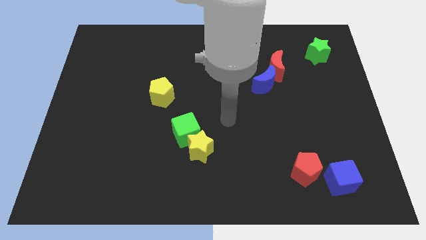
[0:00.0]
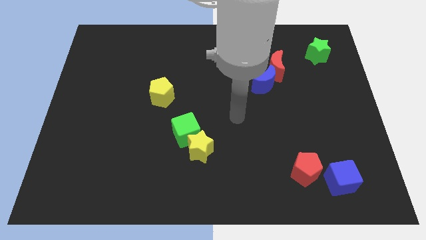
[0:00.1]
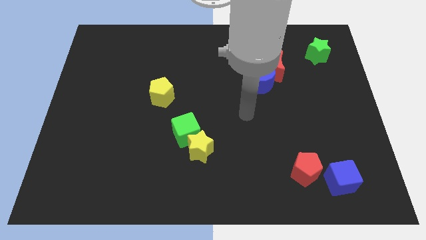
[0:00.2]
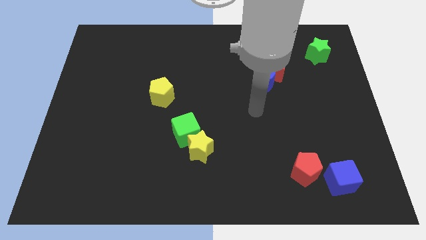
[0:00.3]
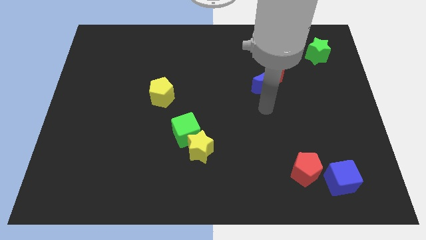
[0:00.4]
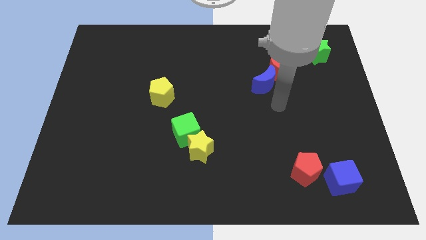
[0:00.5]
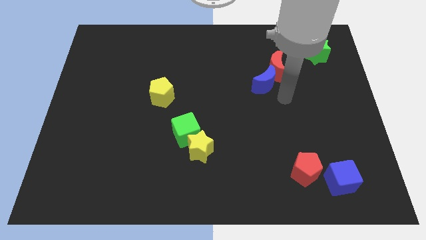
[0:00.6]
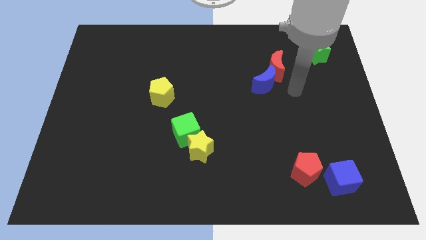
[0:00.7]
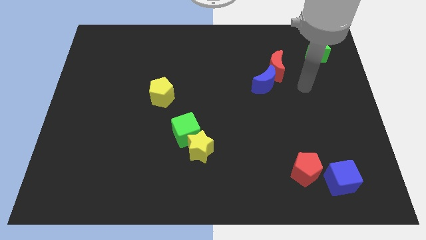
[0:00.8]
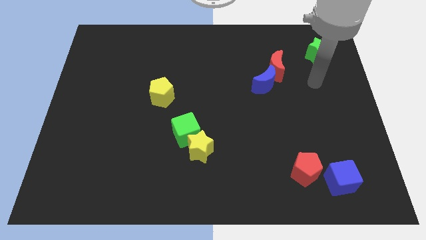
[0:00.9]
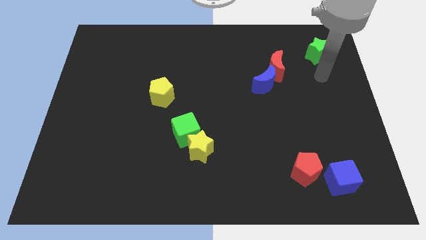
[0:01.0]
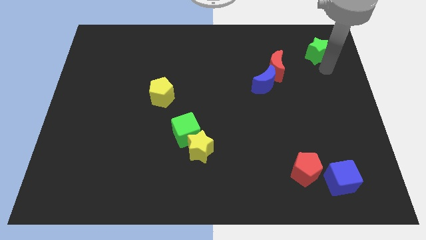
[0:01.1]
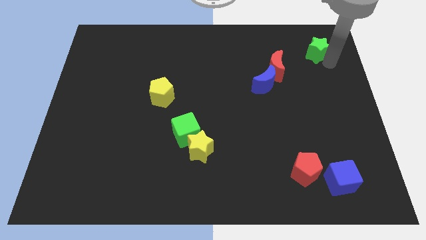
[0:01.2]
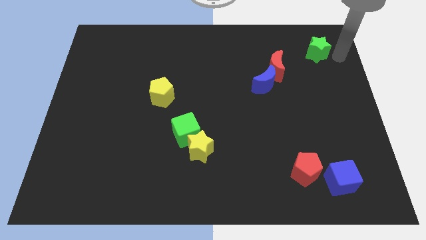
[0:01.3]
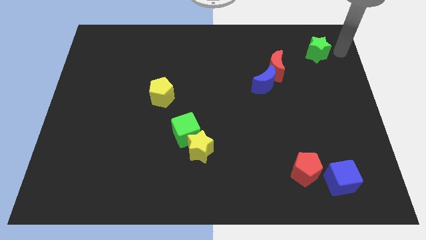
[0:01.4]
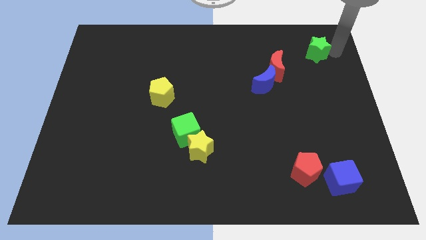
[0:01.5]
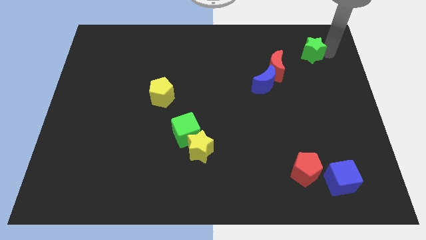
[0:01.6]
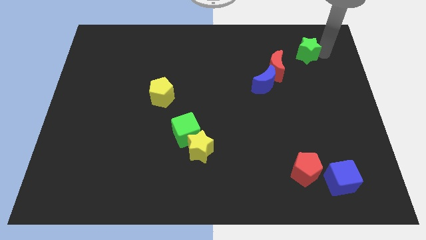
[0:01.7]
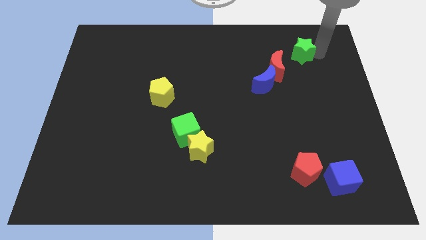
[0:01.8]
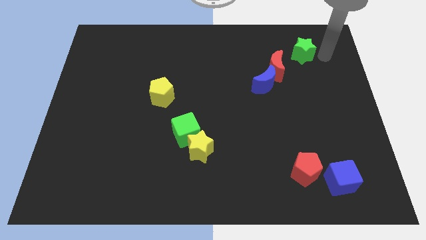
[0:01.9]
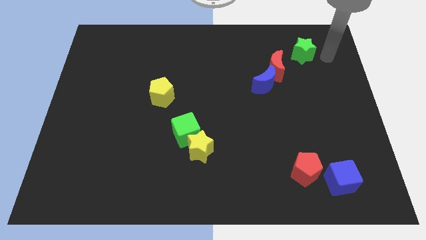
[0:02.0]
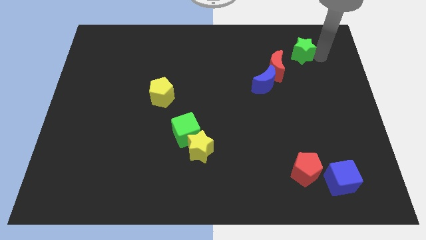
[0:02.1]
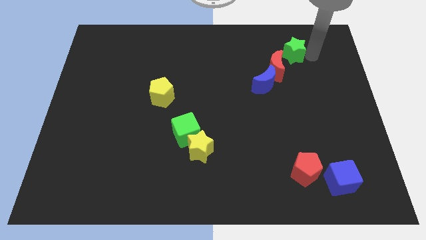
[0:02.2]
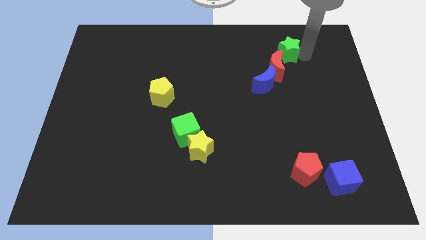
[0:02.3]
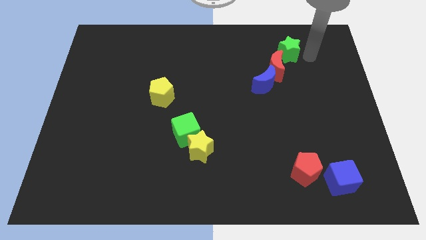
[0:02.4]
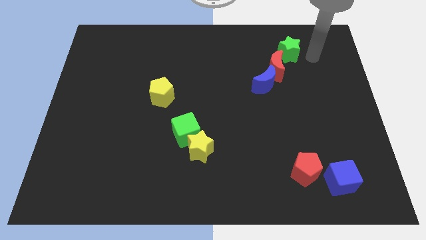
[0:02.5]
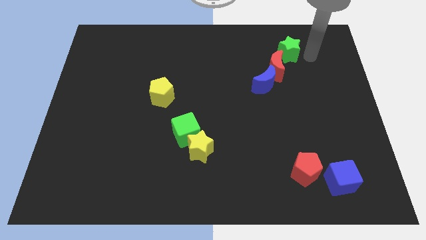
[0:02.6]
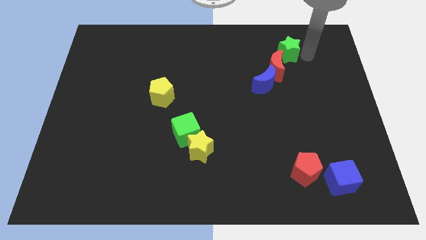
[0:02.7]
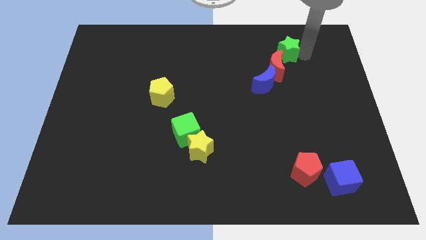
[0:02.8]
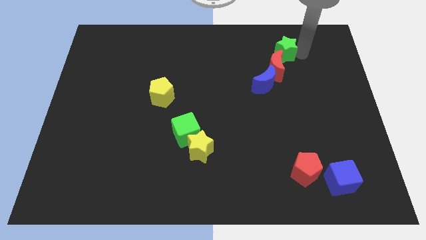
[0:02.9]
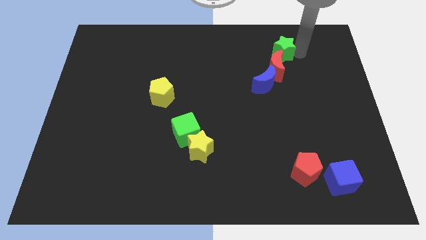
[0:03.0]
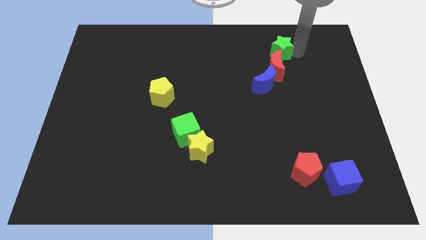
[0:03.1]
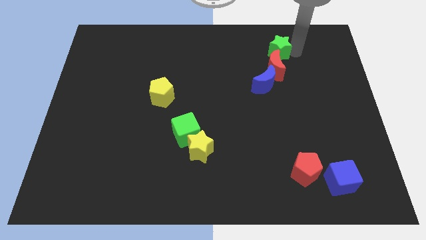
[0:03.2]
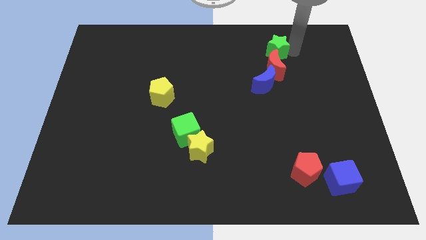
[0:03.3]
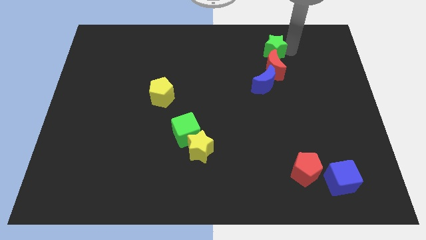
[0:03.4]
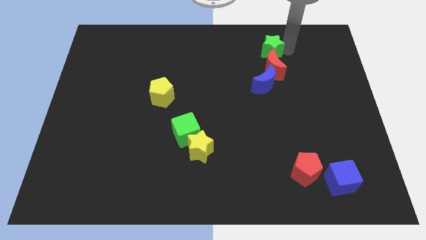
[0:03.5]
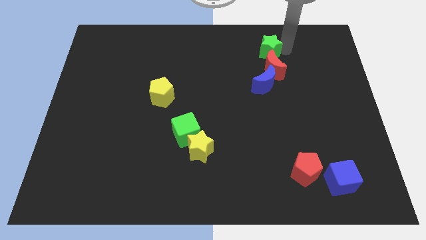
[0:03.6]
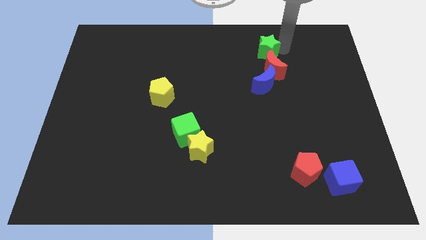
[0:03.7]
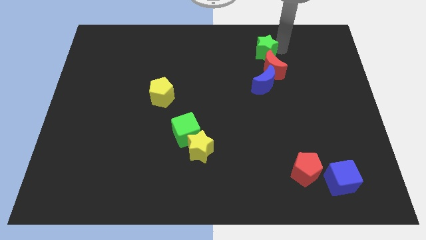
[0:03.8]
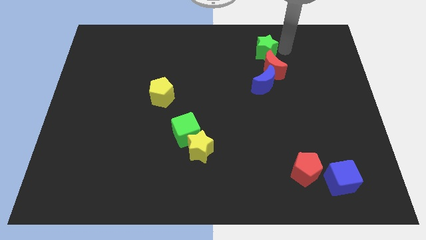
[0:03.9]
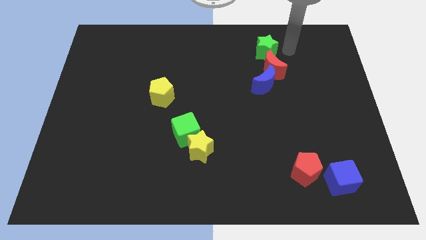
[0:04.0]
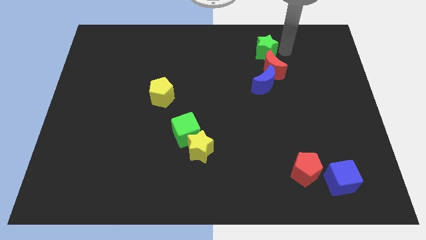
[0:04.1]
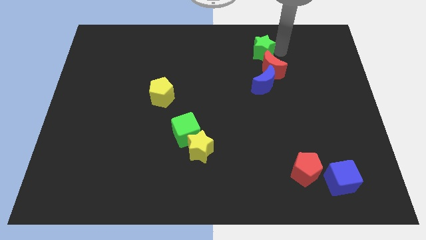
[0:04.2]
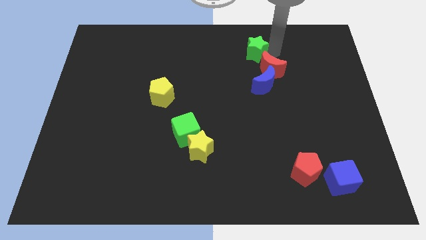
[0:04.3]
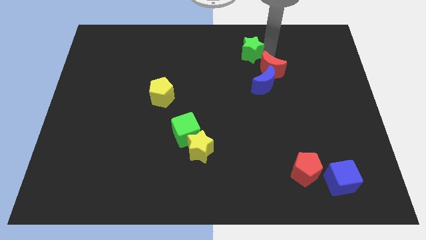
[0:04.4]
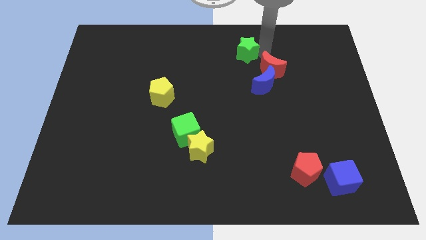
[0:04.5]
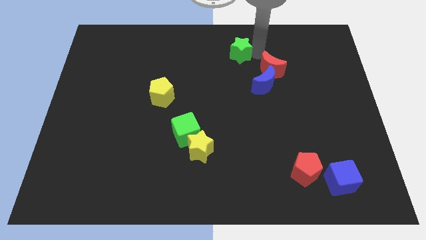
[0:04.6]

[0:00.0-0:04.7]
move the green star left

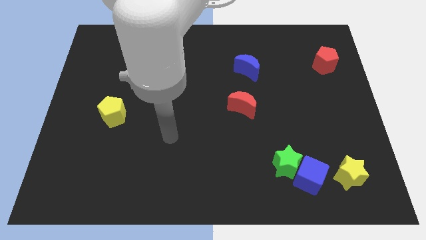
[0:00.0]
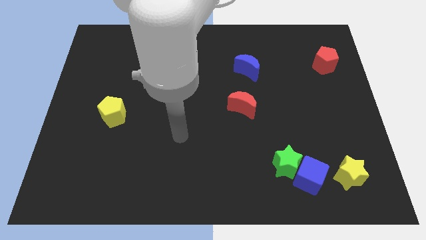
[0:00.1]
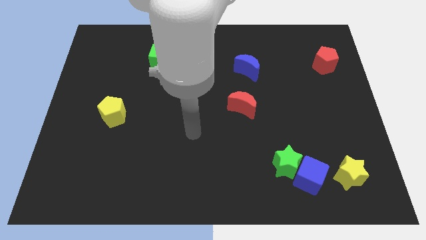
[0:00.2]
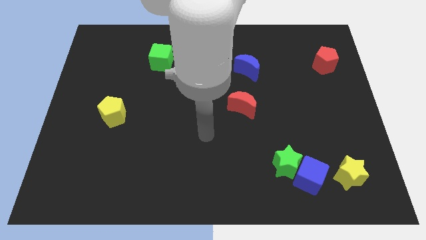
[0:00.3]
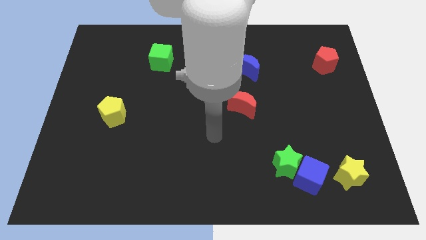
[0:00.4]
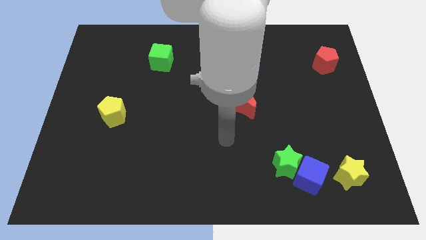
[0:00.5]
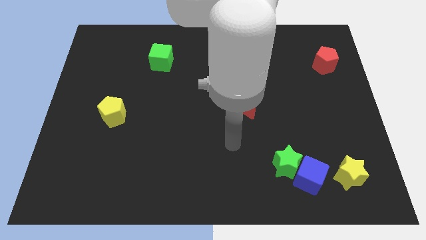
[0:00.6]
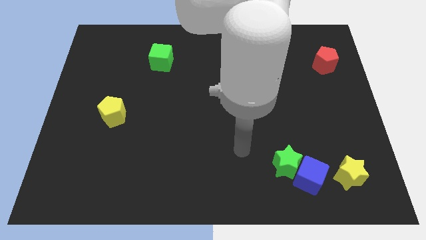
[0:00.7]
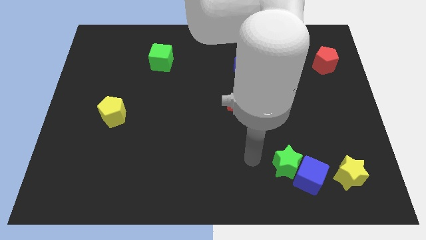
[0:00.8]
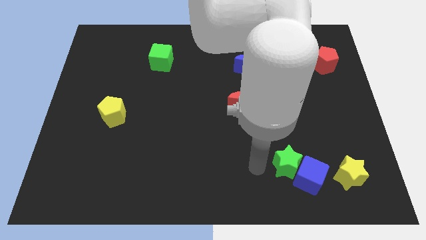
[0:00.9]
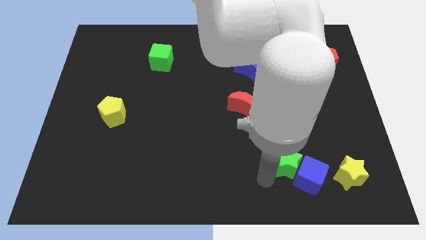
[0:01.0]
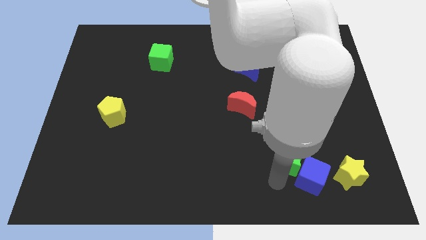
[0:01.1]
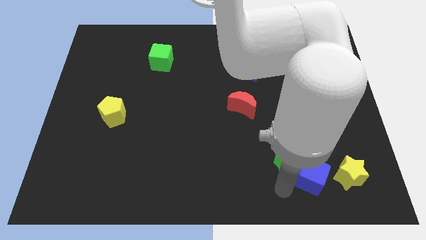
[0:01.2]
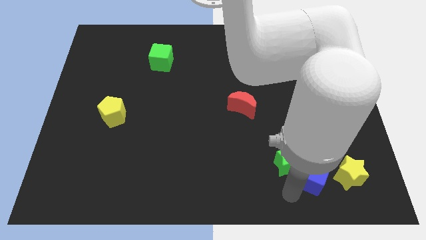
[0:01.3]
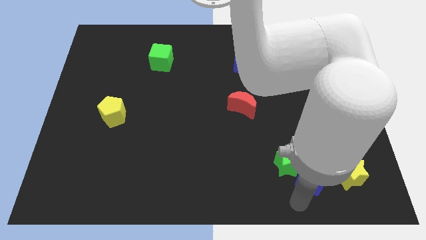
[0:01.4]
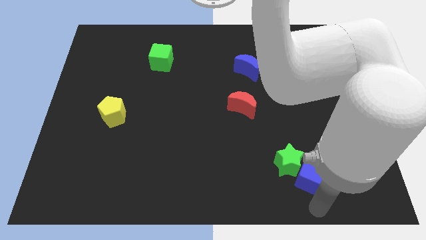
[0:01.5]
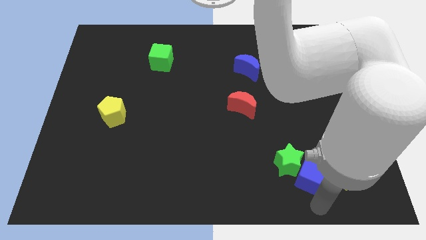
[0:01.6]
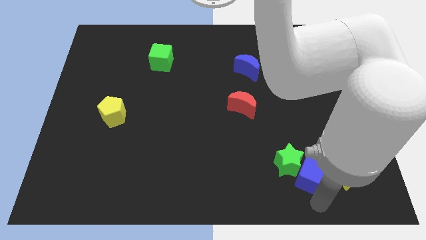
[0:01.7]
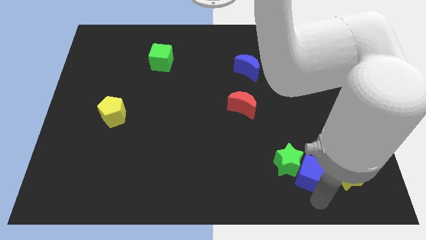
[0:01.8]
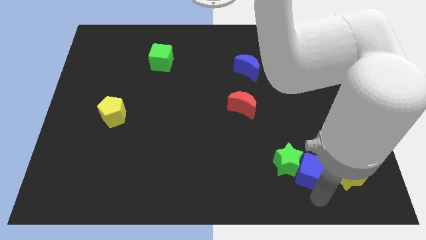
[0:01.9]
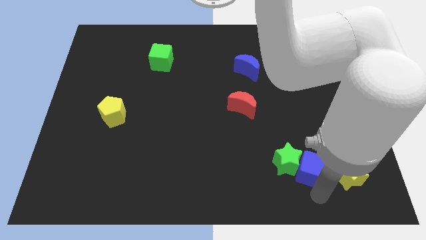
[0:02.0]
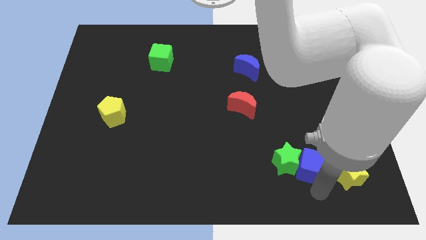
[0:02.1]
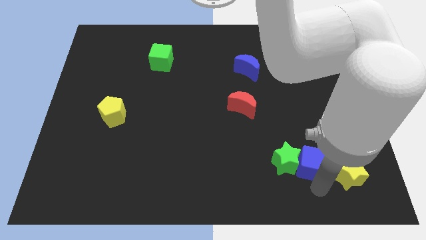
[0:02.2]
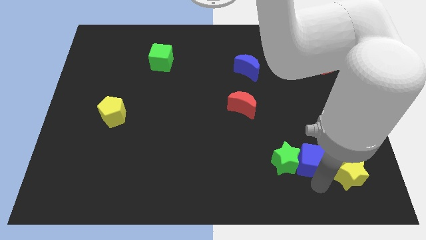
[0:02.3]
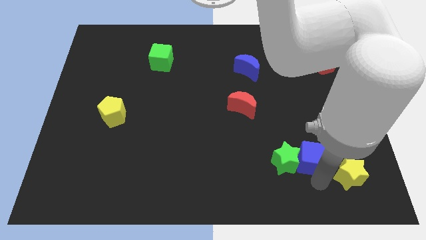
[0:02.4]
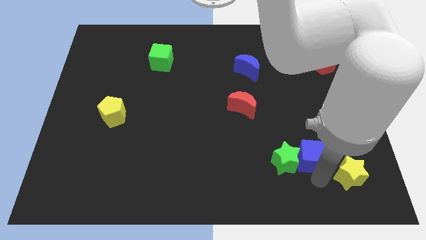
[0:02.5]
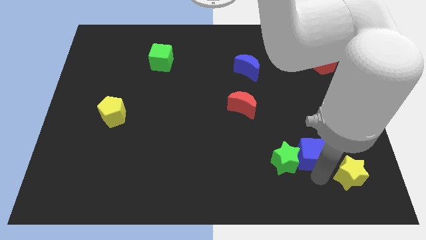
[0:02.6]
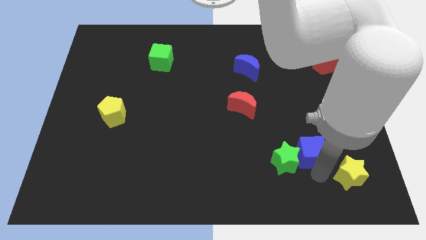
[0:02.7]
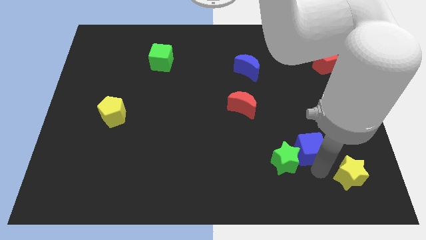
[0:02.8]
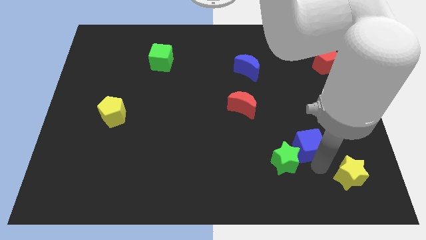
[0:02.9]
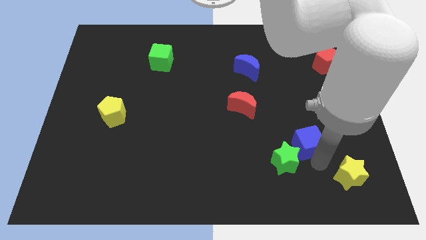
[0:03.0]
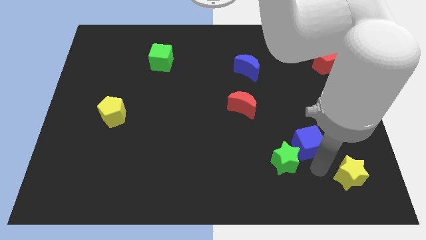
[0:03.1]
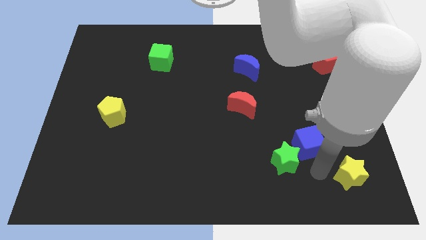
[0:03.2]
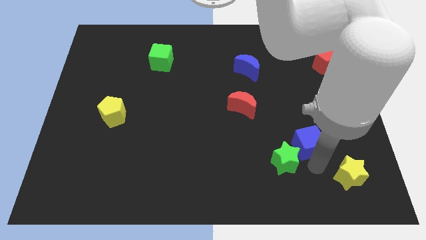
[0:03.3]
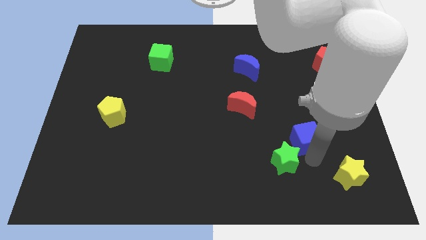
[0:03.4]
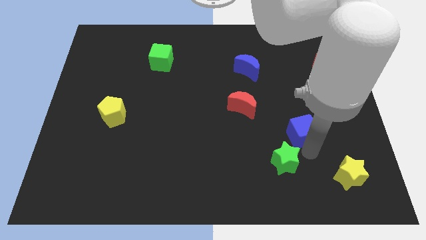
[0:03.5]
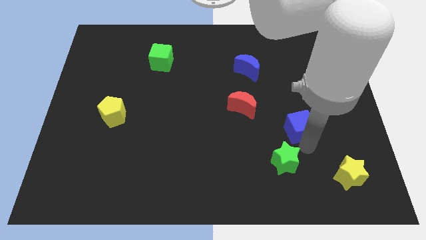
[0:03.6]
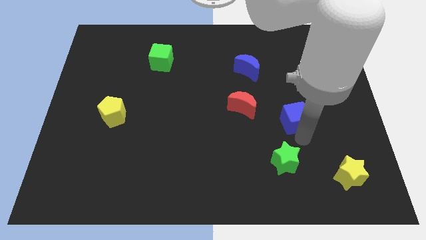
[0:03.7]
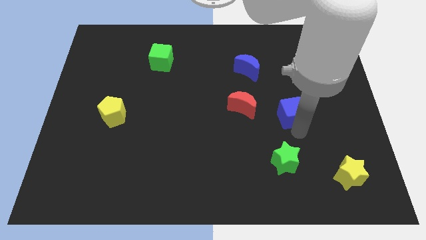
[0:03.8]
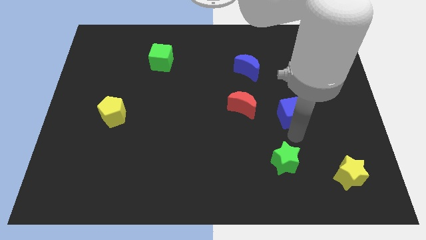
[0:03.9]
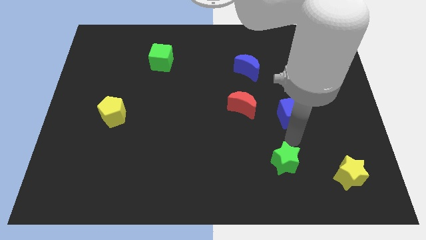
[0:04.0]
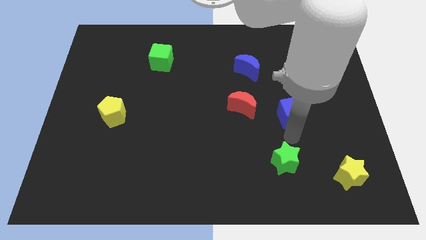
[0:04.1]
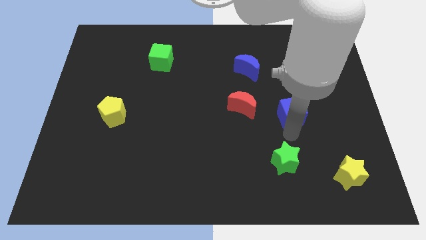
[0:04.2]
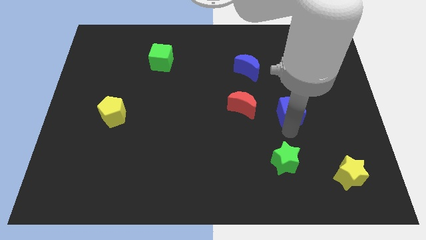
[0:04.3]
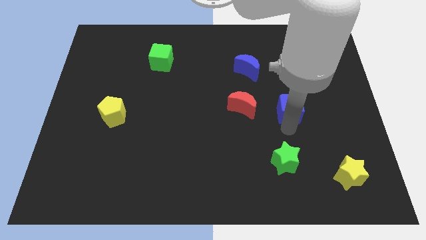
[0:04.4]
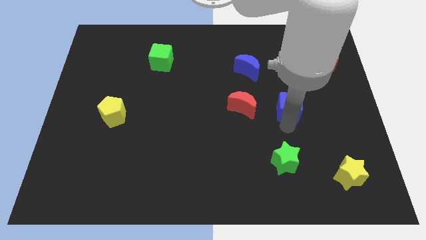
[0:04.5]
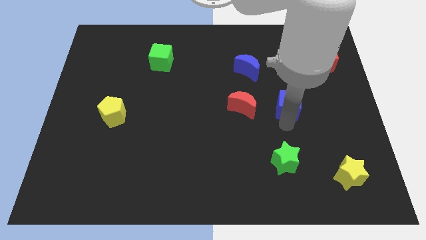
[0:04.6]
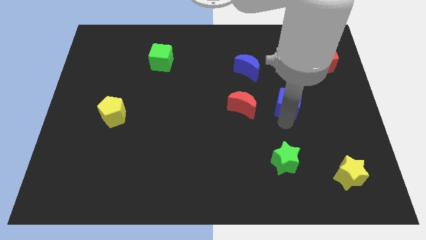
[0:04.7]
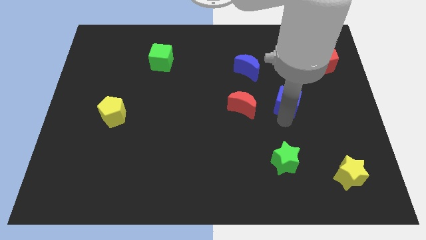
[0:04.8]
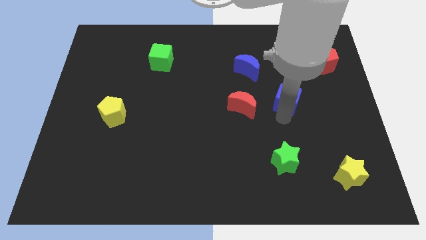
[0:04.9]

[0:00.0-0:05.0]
push the blue cube upwards
